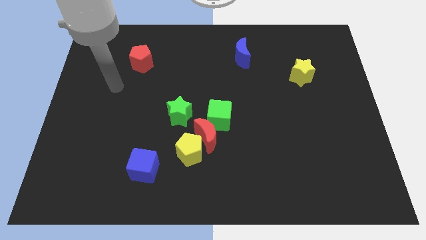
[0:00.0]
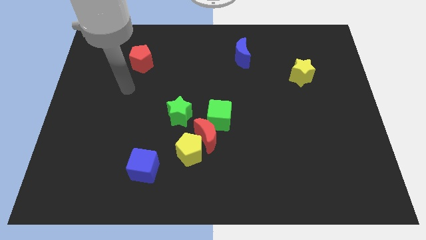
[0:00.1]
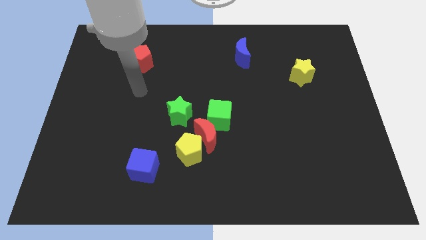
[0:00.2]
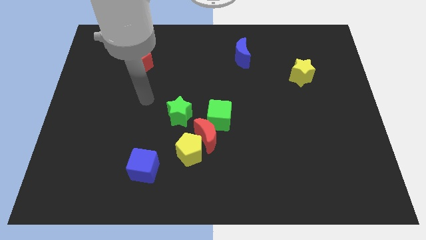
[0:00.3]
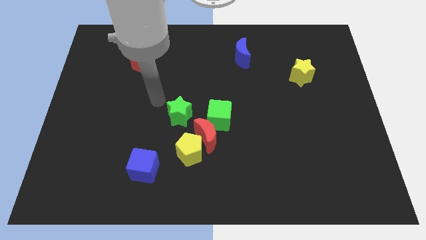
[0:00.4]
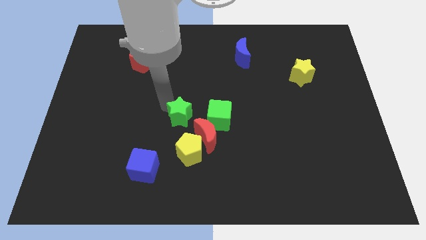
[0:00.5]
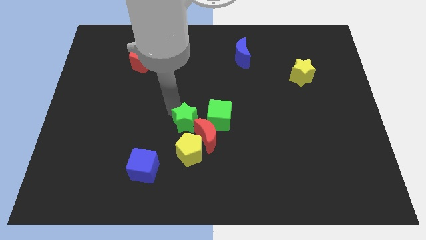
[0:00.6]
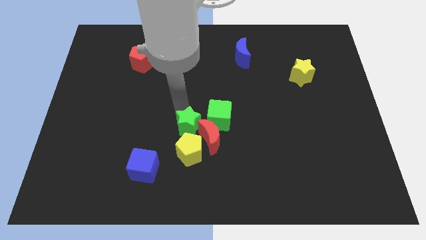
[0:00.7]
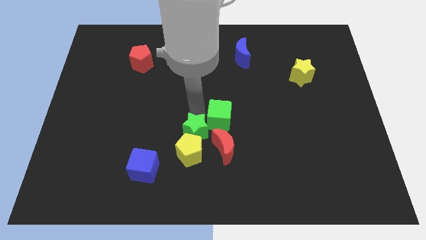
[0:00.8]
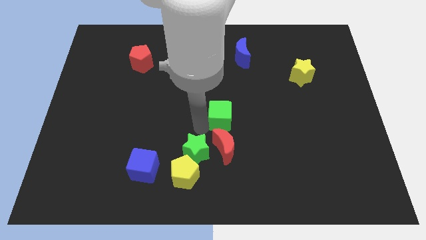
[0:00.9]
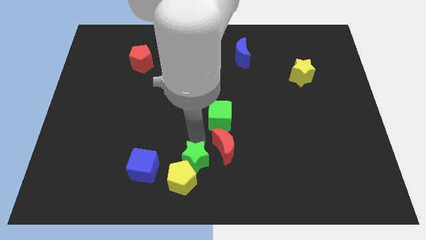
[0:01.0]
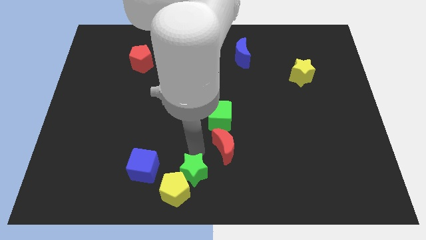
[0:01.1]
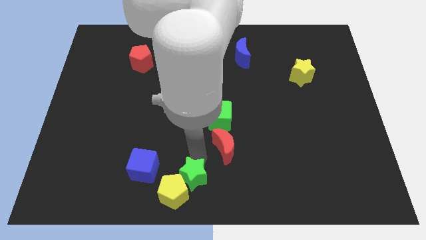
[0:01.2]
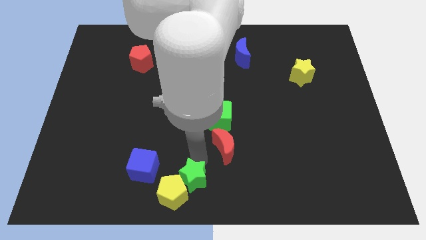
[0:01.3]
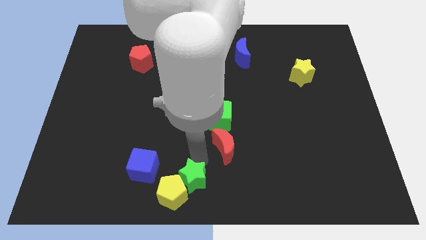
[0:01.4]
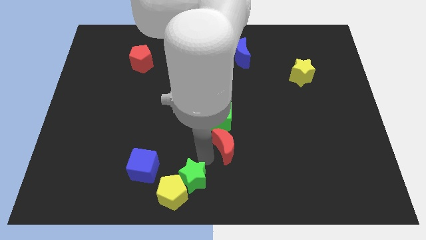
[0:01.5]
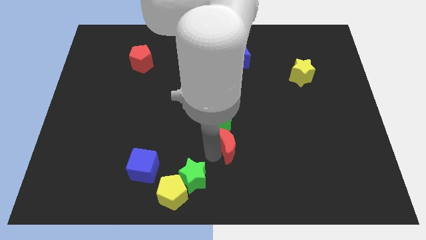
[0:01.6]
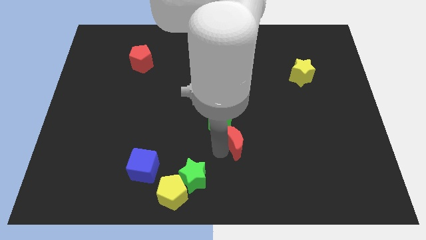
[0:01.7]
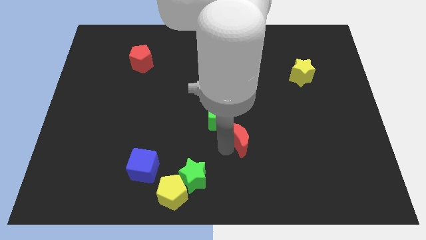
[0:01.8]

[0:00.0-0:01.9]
move the red moon away from the group

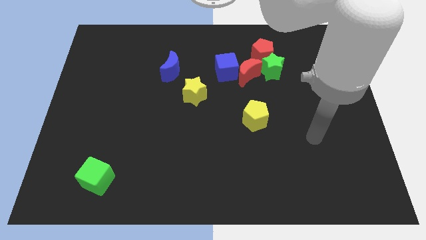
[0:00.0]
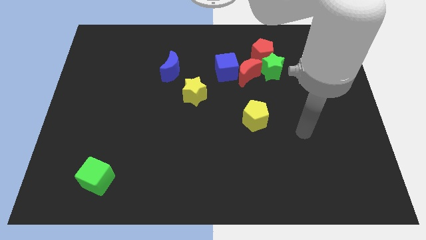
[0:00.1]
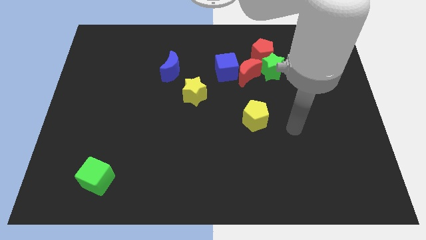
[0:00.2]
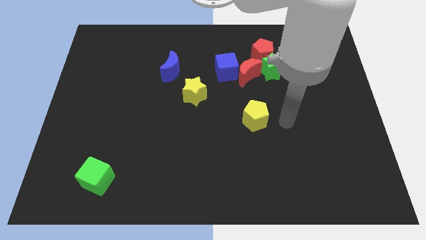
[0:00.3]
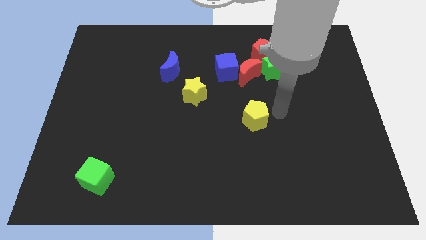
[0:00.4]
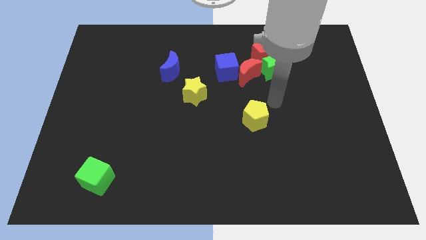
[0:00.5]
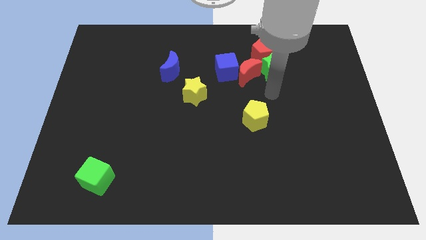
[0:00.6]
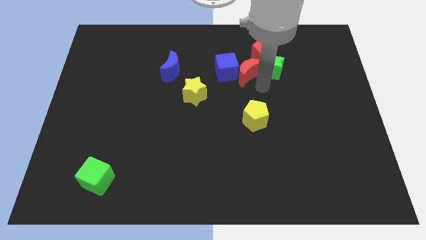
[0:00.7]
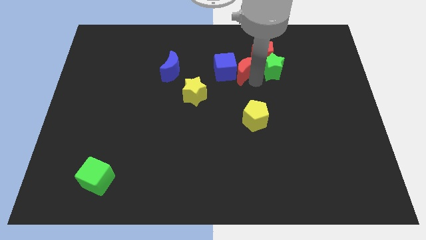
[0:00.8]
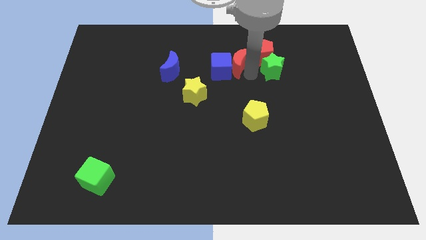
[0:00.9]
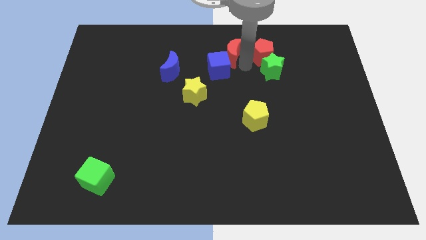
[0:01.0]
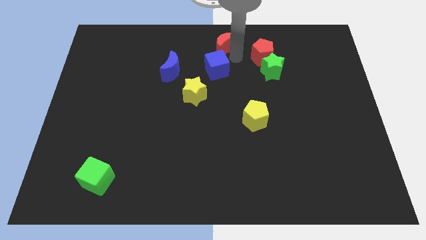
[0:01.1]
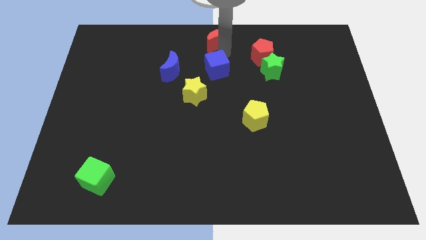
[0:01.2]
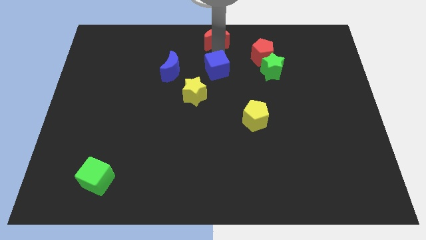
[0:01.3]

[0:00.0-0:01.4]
pull the blue cube apart from the red moon

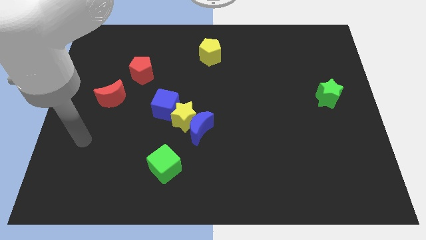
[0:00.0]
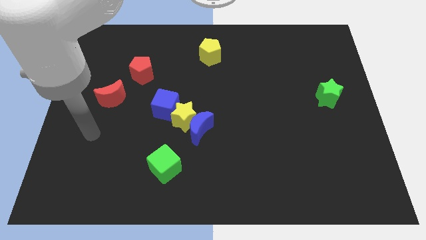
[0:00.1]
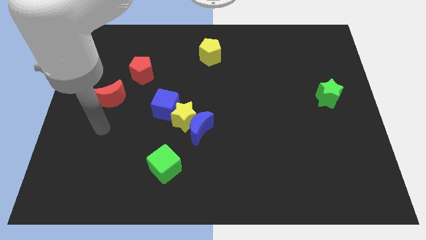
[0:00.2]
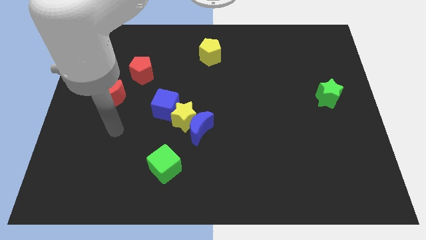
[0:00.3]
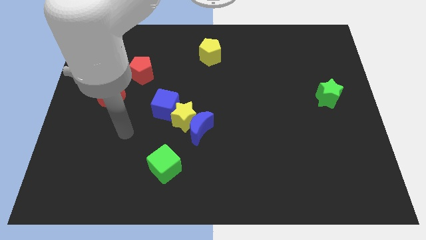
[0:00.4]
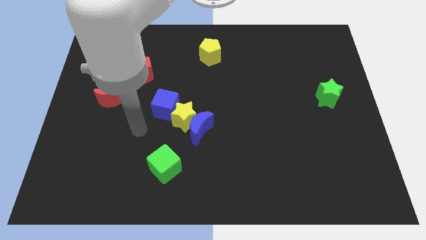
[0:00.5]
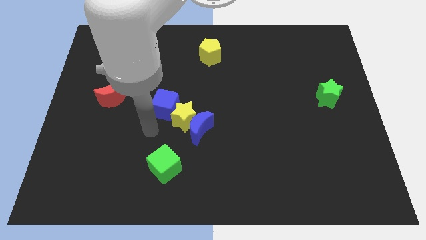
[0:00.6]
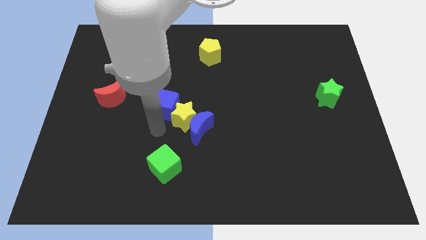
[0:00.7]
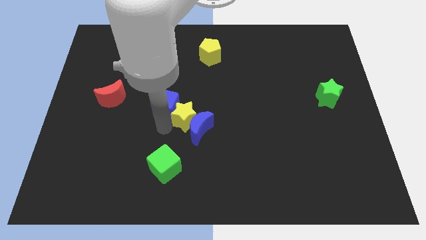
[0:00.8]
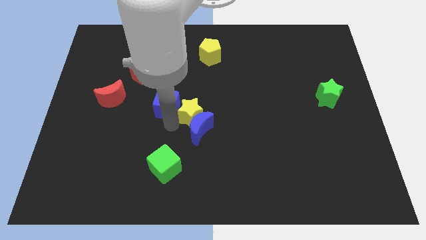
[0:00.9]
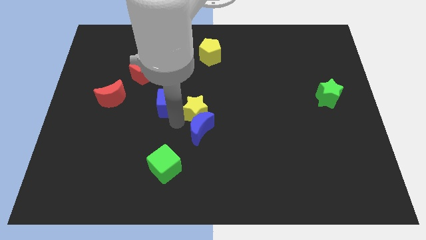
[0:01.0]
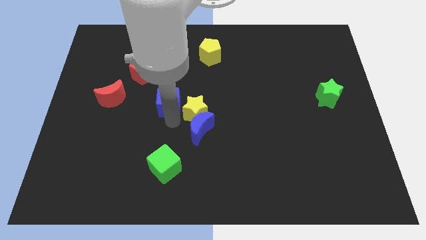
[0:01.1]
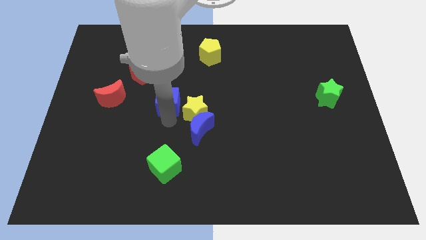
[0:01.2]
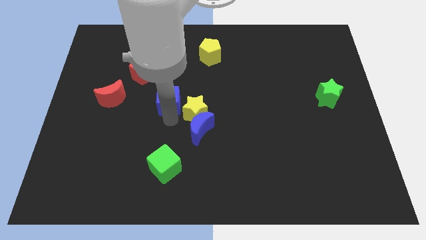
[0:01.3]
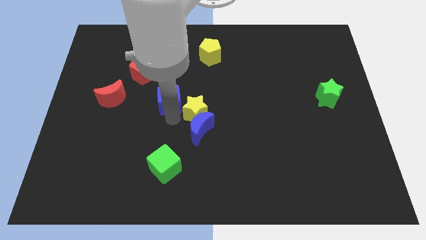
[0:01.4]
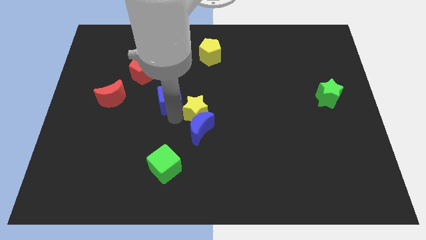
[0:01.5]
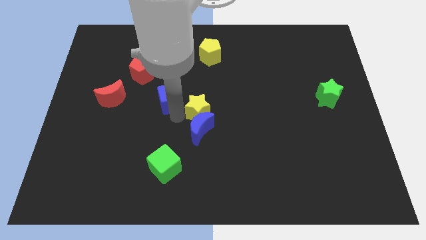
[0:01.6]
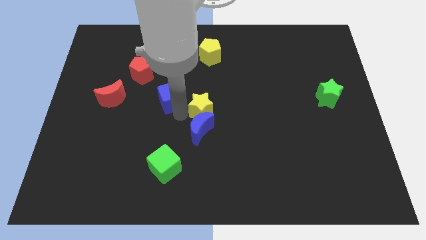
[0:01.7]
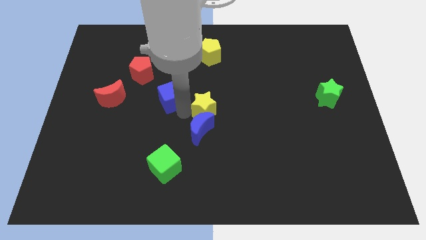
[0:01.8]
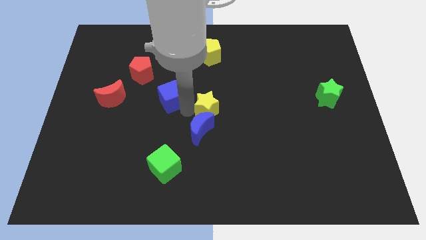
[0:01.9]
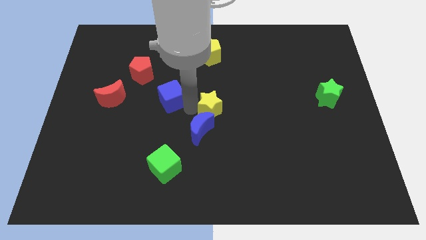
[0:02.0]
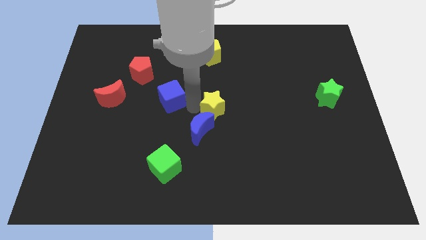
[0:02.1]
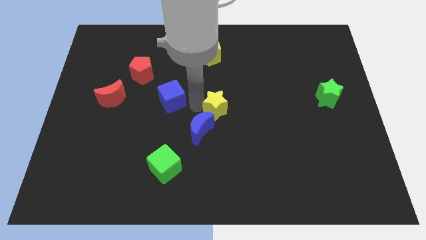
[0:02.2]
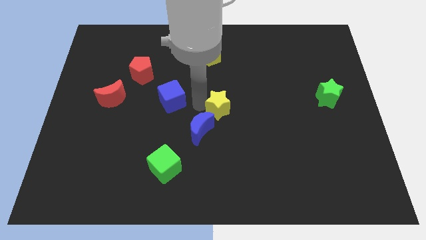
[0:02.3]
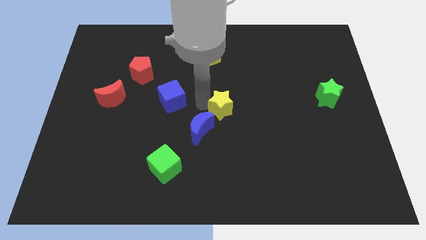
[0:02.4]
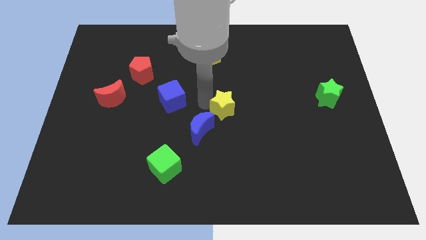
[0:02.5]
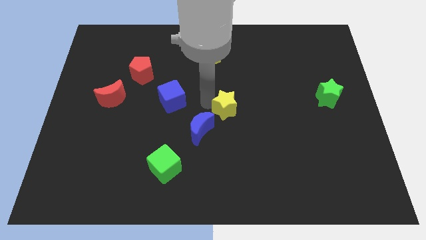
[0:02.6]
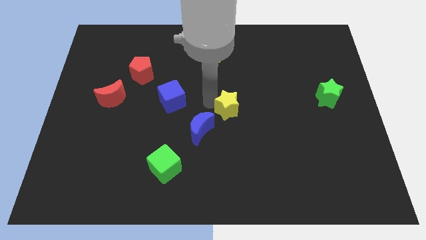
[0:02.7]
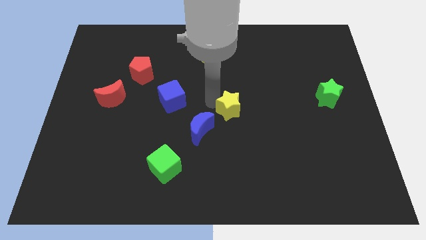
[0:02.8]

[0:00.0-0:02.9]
separate the yellow star from the blue moon and blue cube

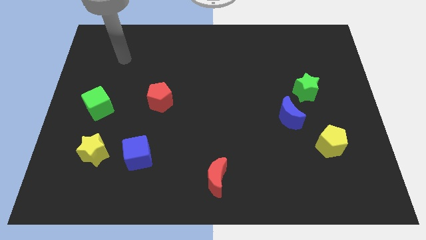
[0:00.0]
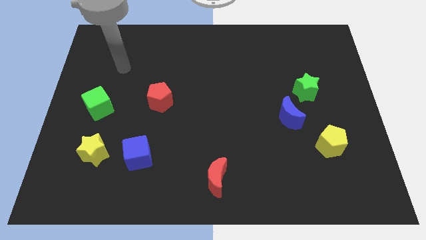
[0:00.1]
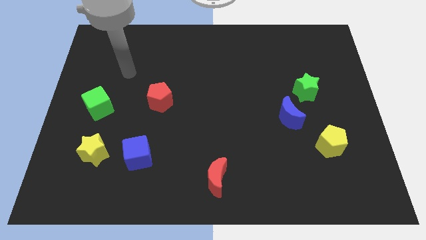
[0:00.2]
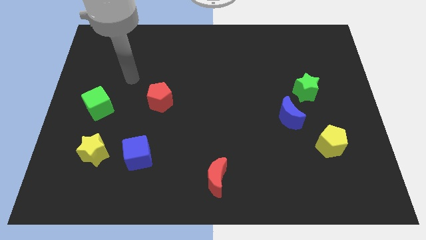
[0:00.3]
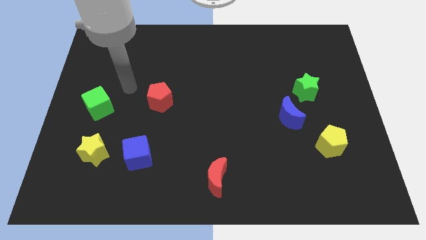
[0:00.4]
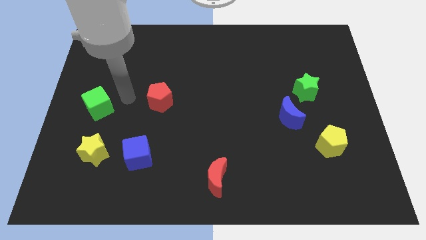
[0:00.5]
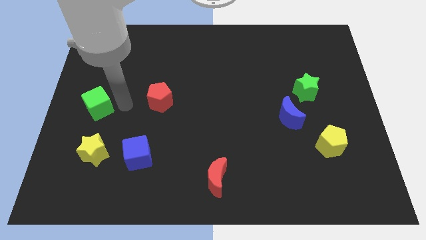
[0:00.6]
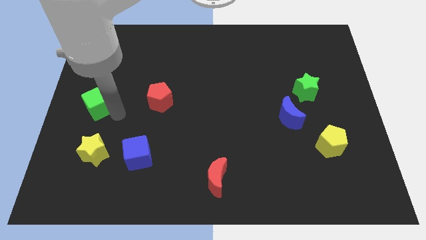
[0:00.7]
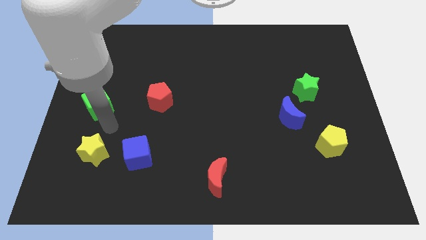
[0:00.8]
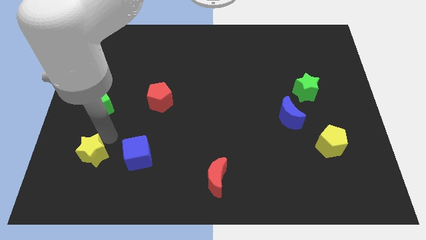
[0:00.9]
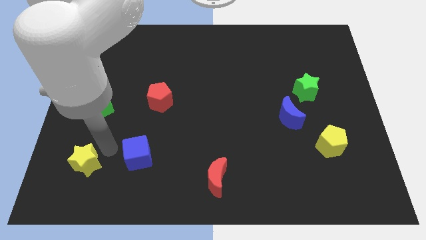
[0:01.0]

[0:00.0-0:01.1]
pull the blue cube apart from the yellow star

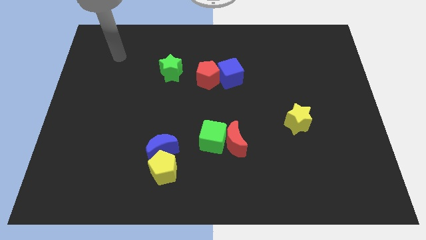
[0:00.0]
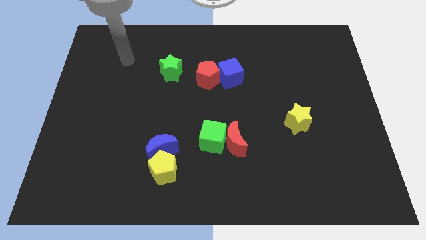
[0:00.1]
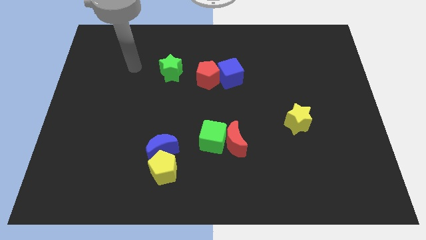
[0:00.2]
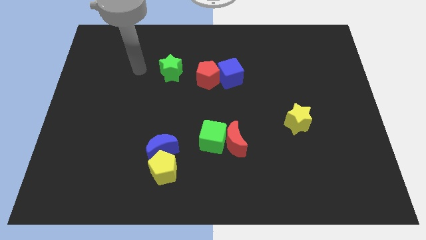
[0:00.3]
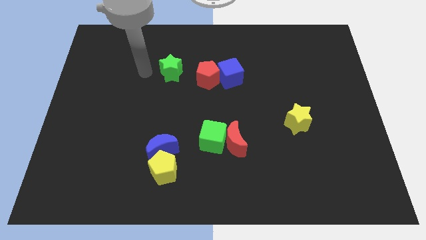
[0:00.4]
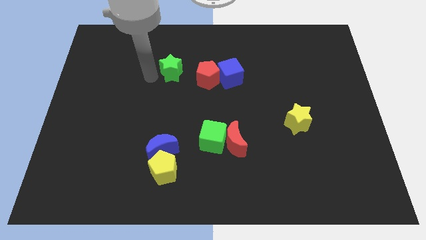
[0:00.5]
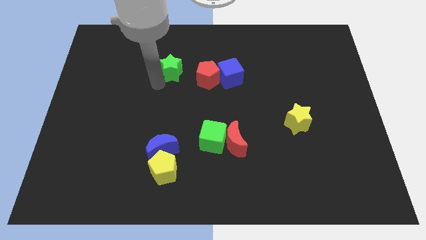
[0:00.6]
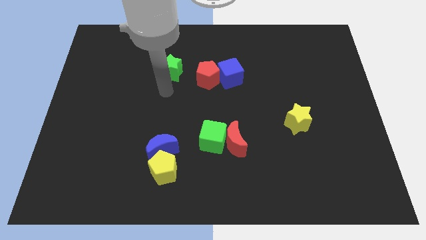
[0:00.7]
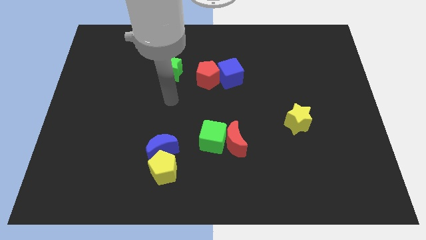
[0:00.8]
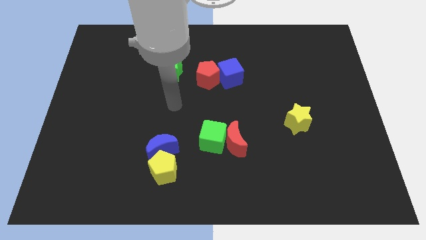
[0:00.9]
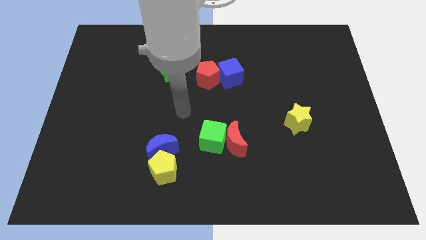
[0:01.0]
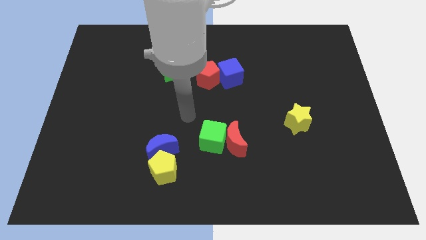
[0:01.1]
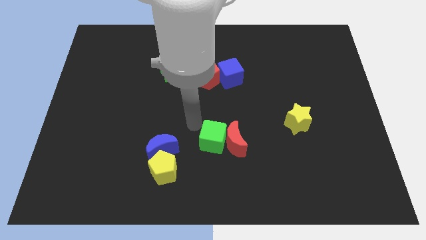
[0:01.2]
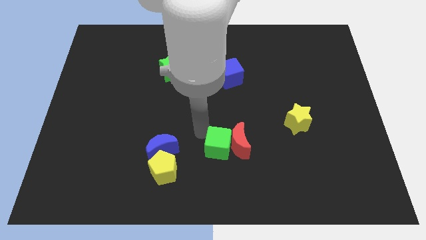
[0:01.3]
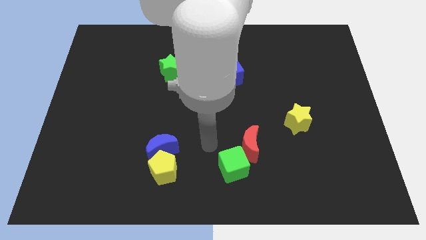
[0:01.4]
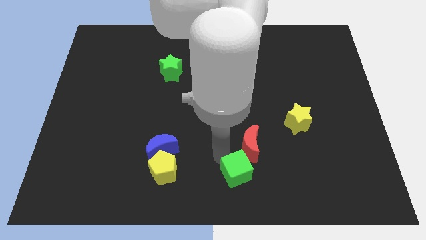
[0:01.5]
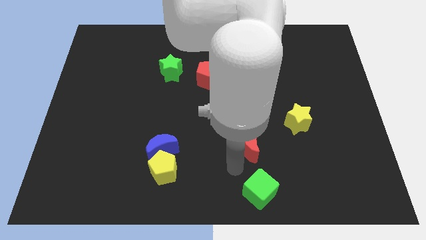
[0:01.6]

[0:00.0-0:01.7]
pull the red moon apart from the green cube

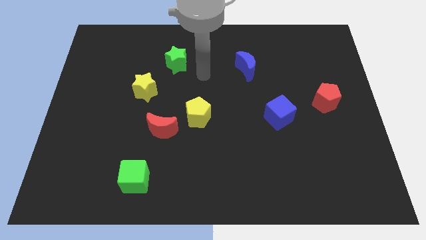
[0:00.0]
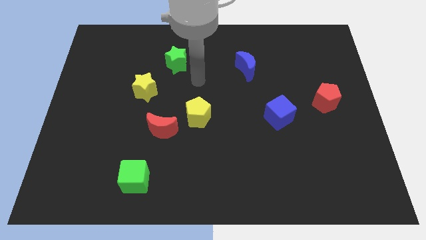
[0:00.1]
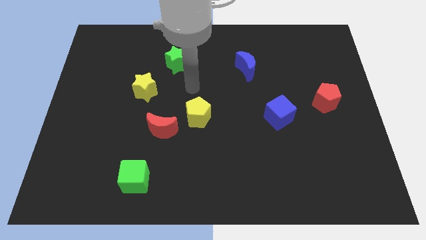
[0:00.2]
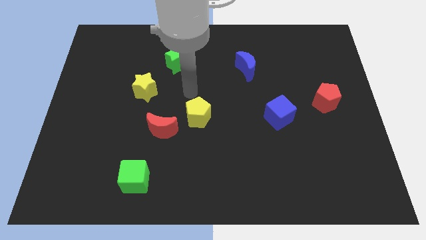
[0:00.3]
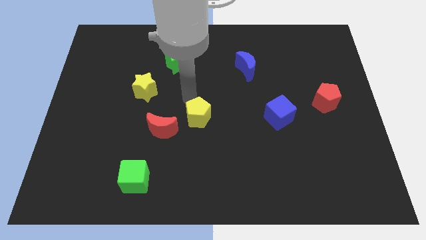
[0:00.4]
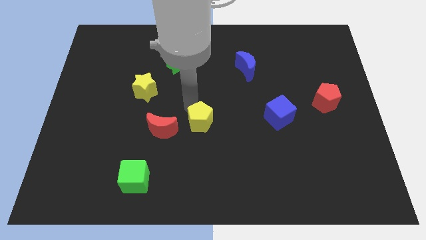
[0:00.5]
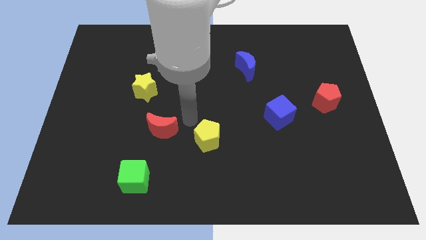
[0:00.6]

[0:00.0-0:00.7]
separate the red moon from the yellow pentagon
